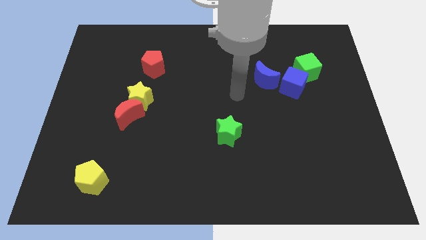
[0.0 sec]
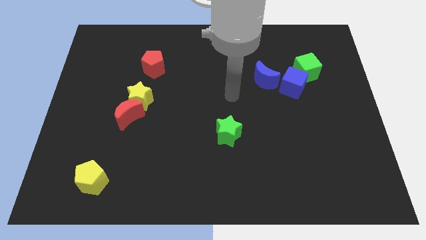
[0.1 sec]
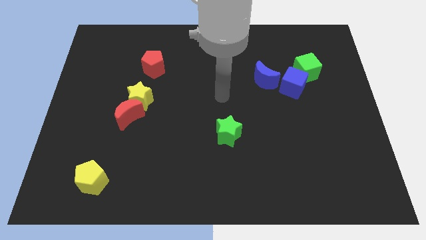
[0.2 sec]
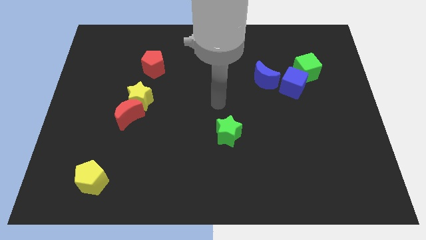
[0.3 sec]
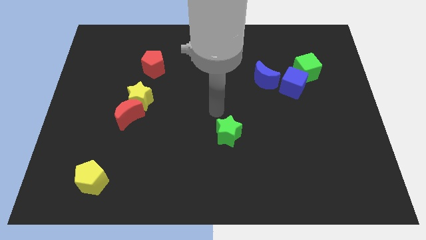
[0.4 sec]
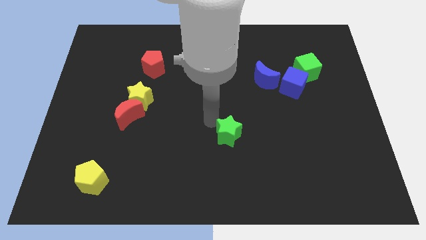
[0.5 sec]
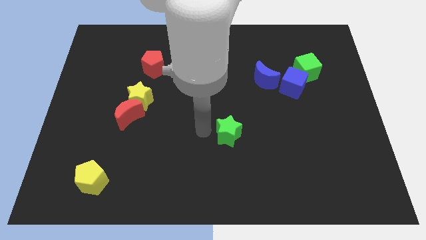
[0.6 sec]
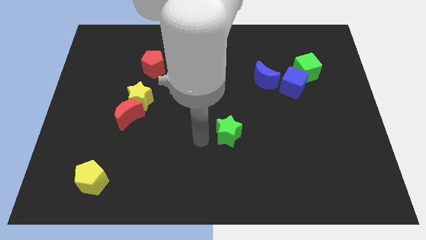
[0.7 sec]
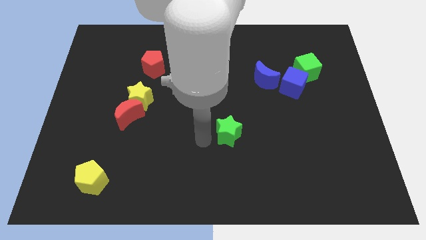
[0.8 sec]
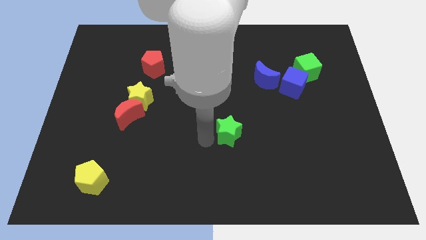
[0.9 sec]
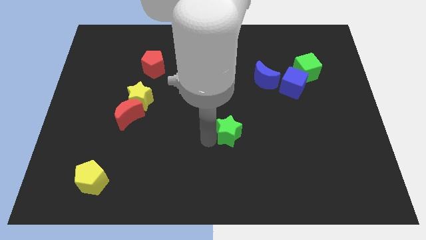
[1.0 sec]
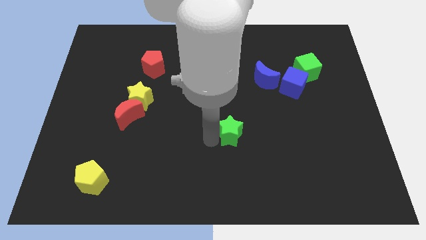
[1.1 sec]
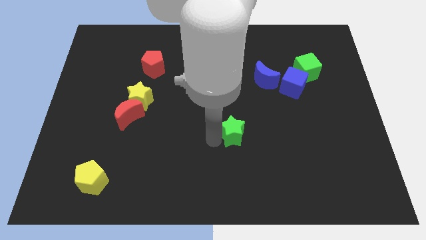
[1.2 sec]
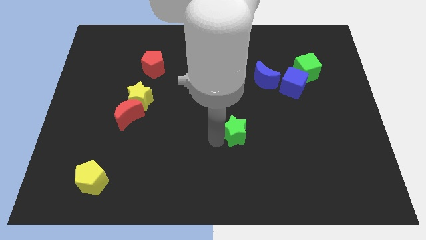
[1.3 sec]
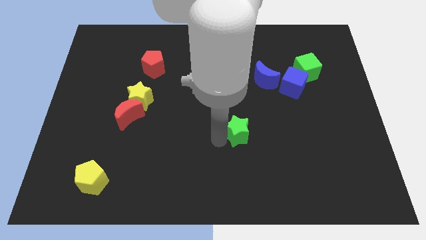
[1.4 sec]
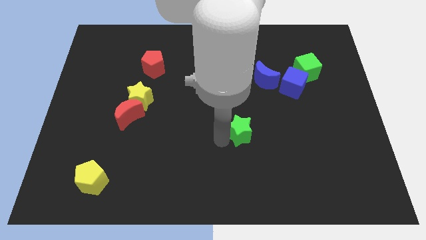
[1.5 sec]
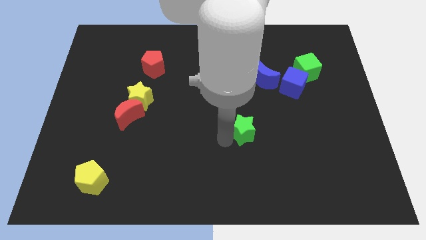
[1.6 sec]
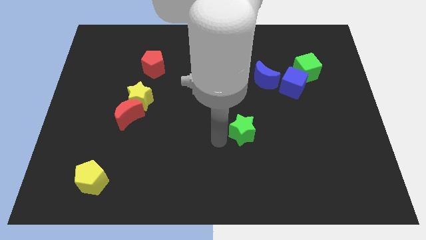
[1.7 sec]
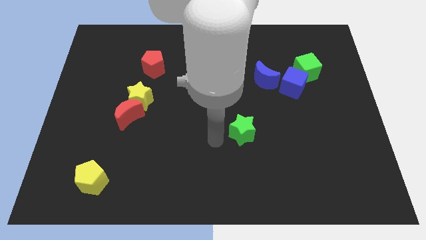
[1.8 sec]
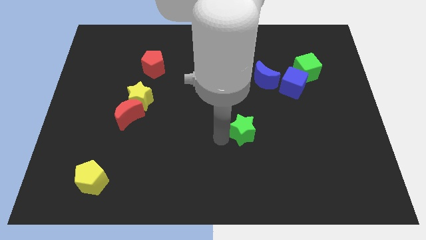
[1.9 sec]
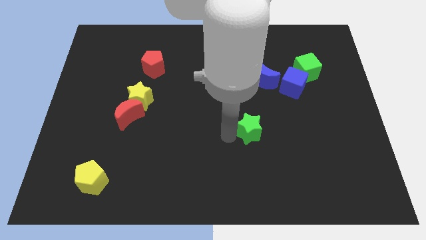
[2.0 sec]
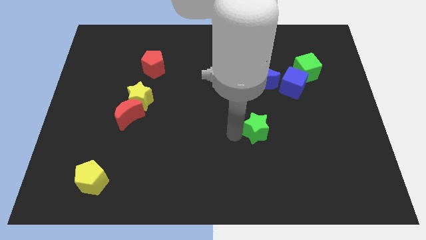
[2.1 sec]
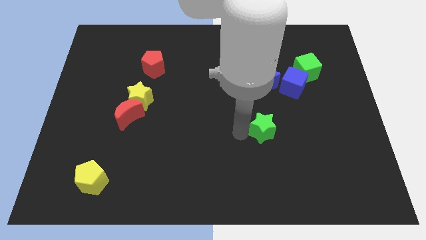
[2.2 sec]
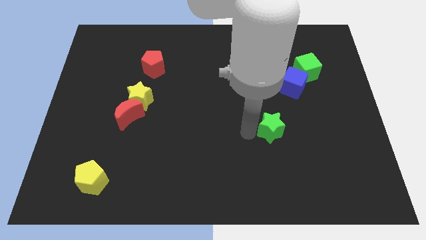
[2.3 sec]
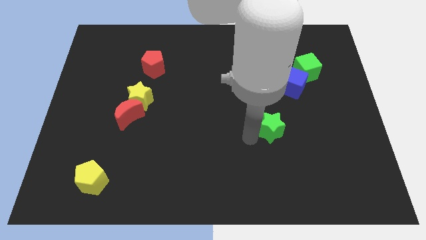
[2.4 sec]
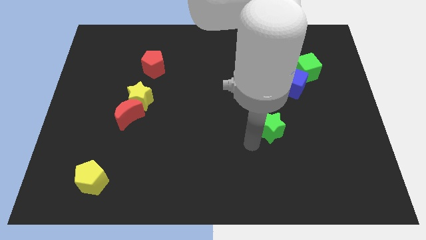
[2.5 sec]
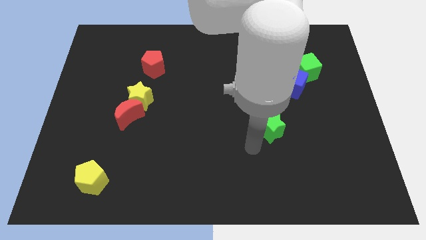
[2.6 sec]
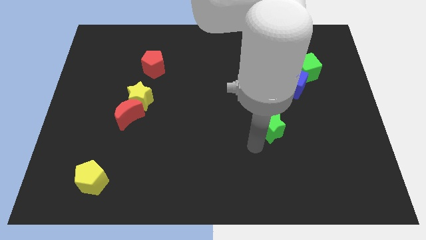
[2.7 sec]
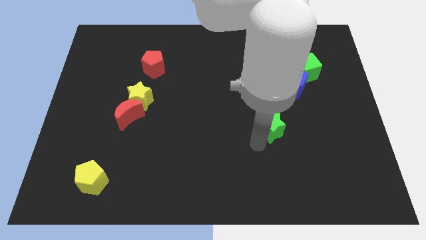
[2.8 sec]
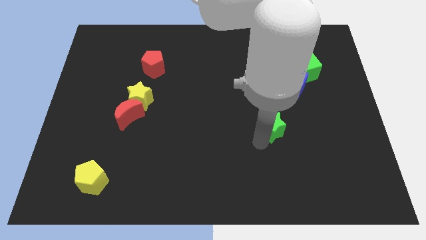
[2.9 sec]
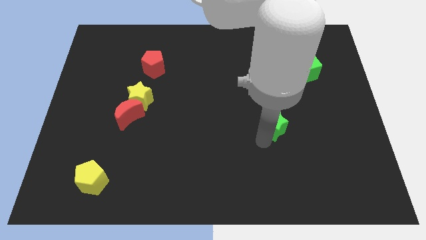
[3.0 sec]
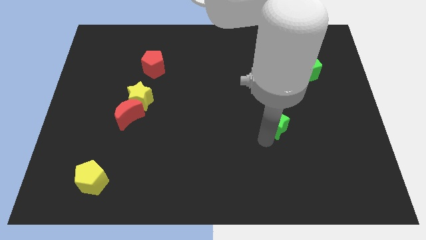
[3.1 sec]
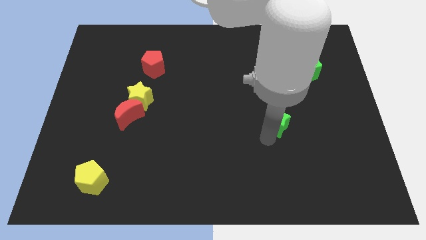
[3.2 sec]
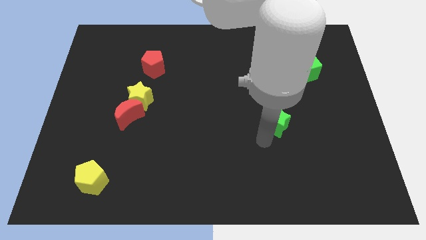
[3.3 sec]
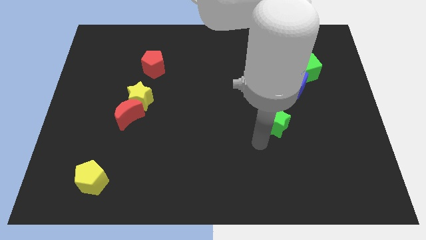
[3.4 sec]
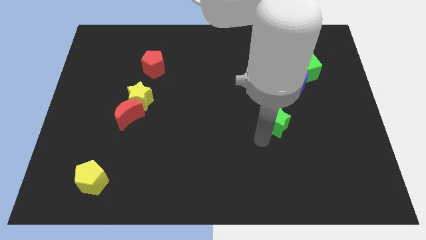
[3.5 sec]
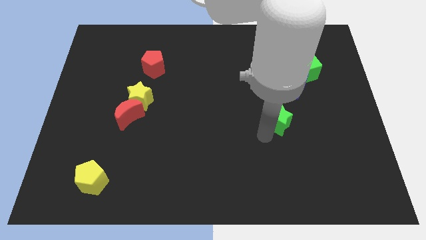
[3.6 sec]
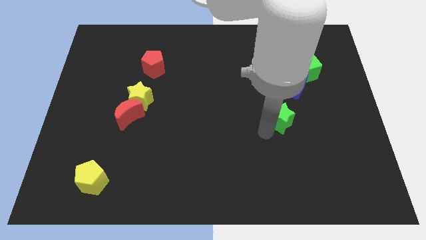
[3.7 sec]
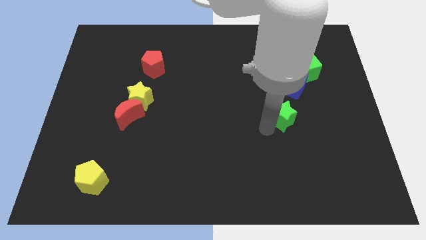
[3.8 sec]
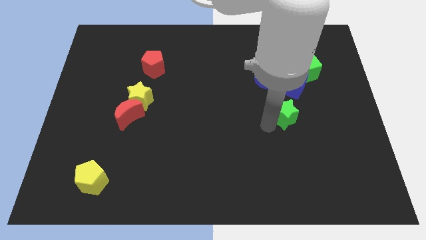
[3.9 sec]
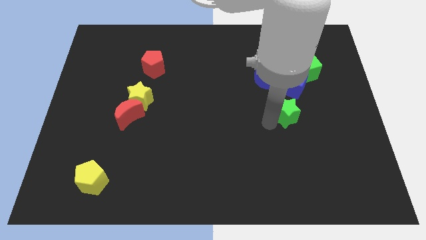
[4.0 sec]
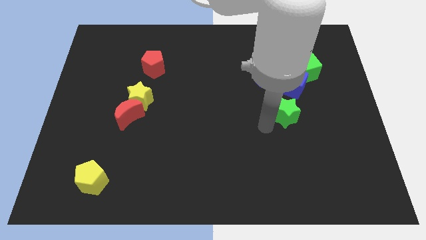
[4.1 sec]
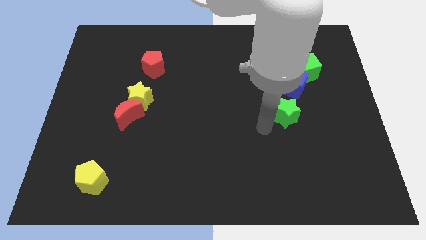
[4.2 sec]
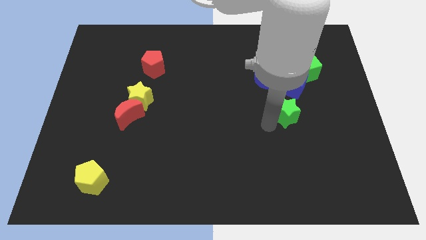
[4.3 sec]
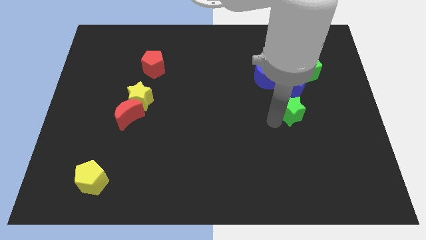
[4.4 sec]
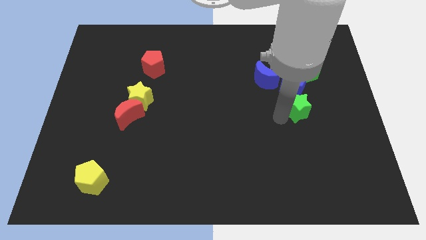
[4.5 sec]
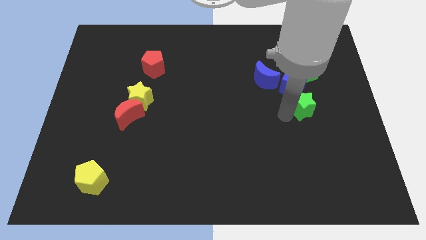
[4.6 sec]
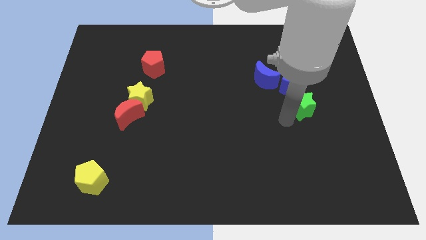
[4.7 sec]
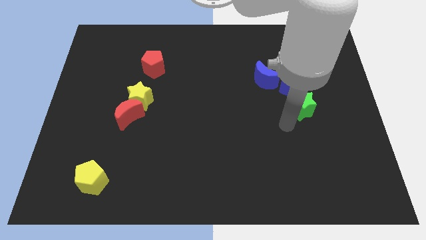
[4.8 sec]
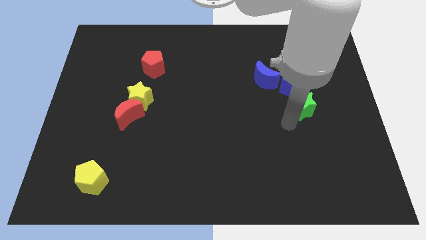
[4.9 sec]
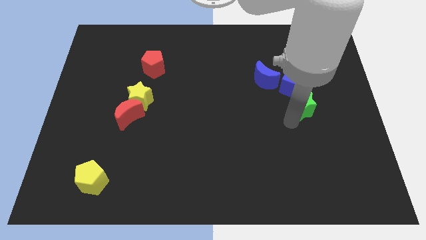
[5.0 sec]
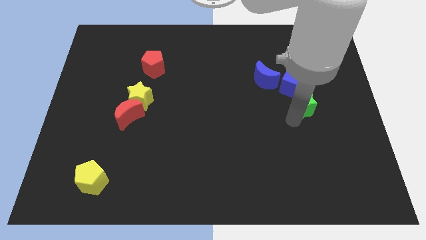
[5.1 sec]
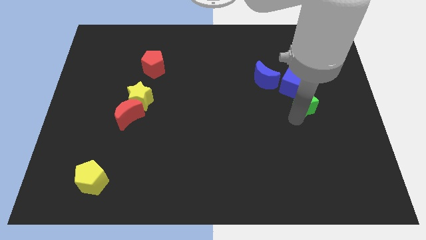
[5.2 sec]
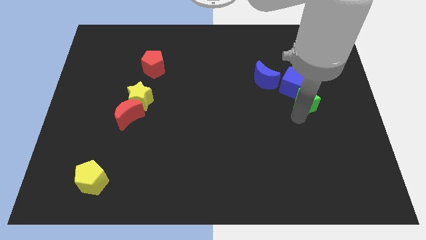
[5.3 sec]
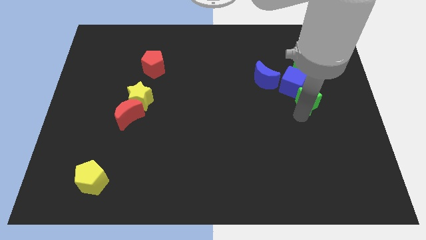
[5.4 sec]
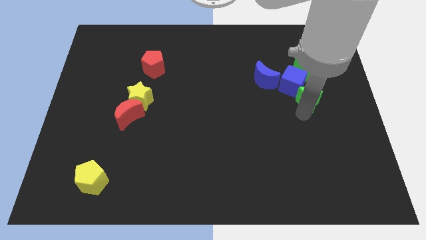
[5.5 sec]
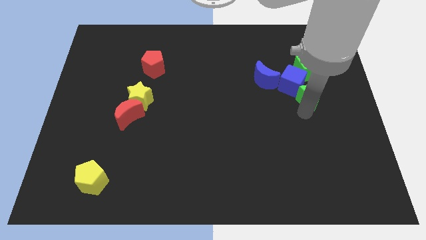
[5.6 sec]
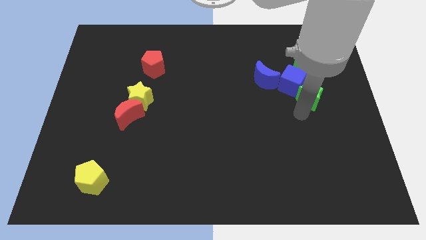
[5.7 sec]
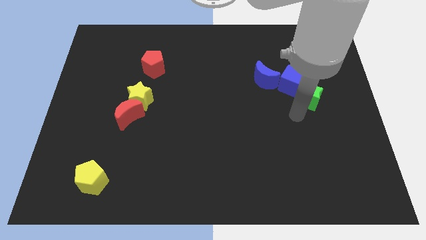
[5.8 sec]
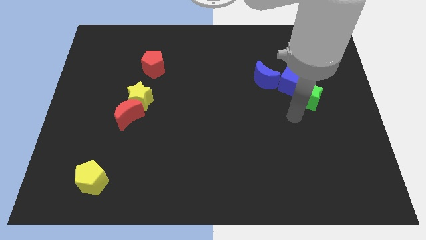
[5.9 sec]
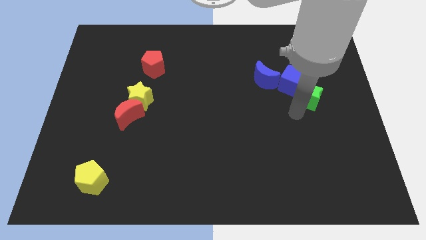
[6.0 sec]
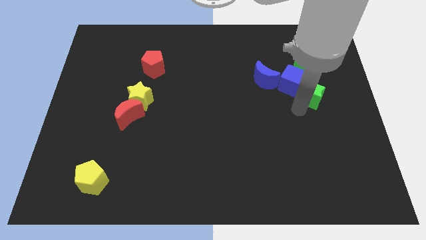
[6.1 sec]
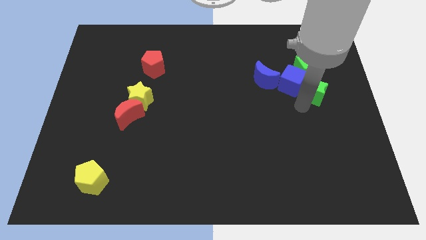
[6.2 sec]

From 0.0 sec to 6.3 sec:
push the green star diagonally upwards and to the right

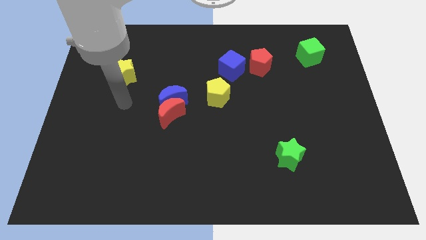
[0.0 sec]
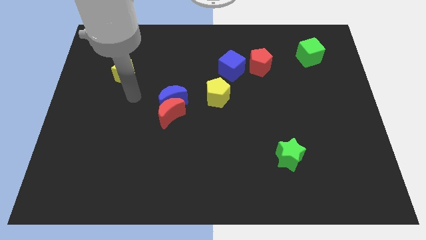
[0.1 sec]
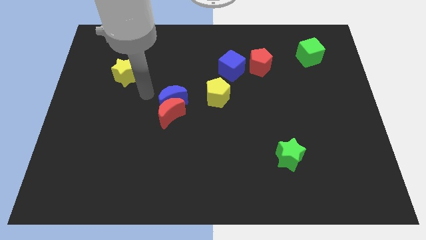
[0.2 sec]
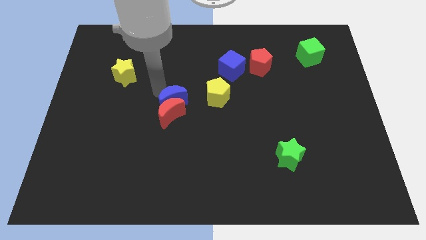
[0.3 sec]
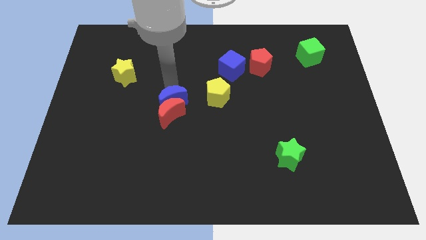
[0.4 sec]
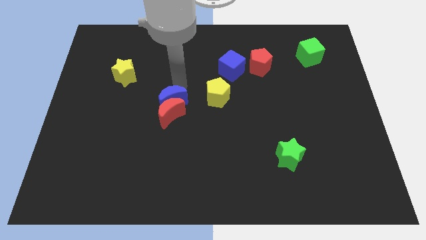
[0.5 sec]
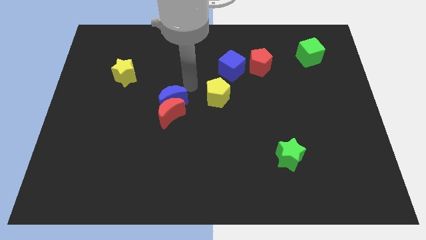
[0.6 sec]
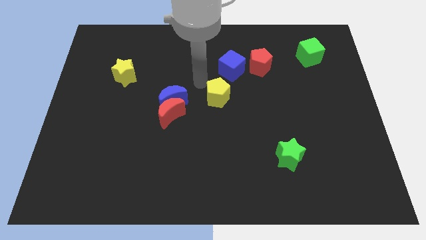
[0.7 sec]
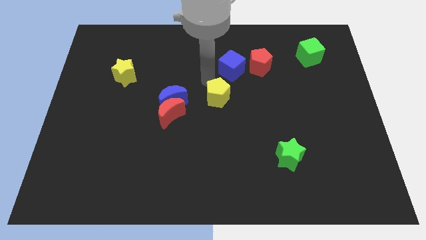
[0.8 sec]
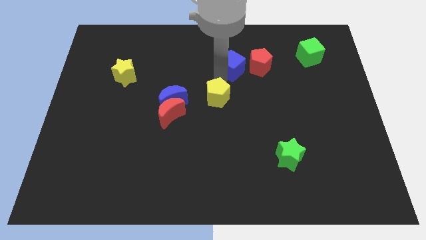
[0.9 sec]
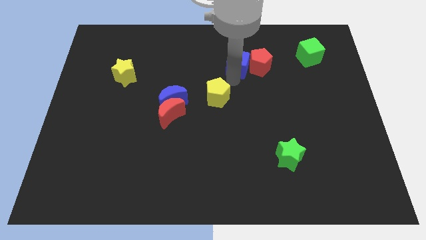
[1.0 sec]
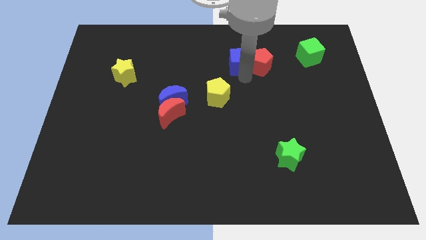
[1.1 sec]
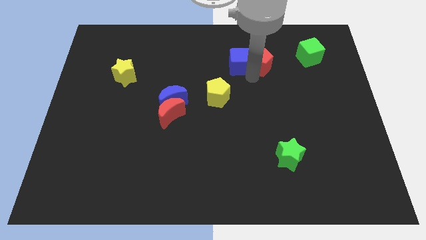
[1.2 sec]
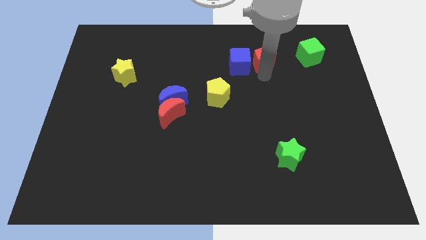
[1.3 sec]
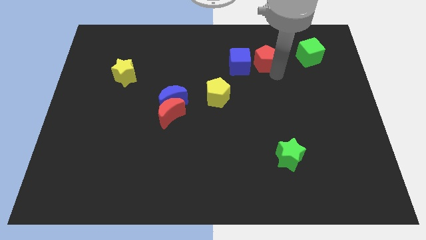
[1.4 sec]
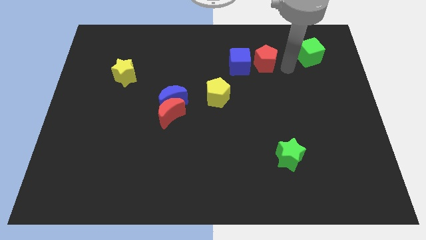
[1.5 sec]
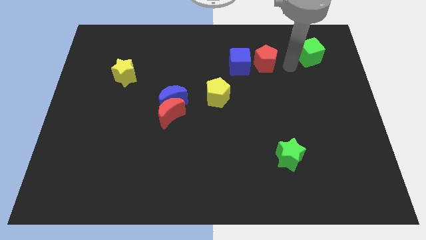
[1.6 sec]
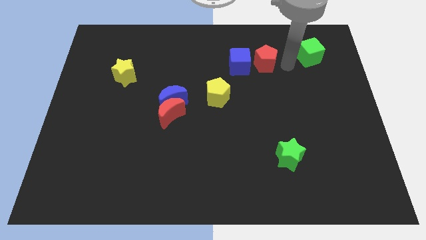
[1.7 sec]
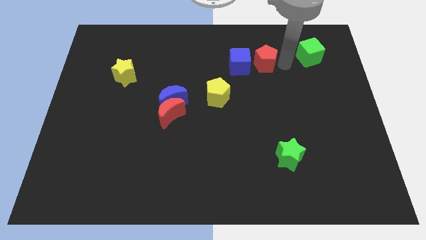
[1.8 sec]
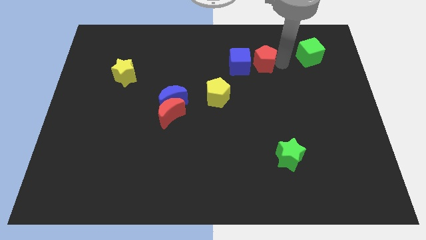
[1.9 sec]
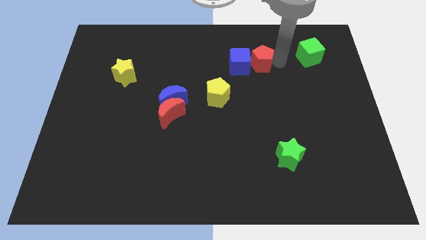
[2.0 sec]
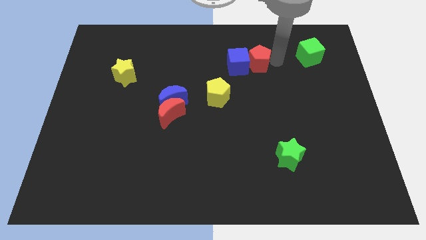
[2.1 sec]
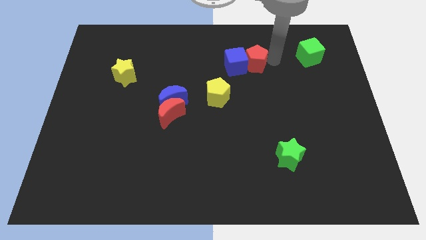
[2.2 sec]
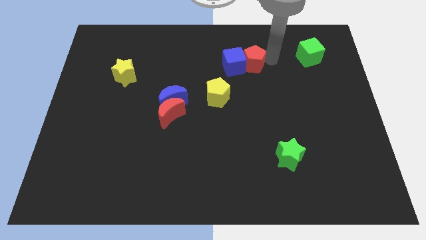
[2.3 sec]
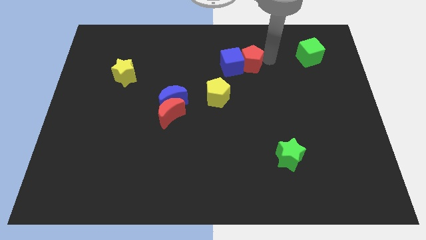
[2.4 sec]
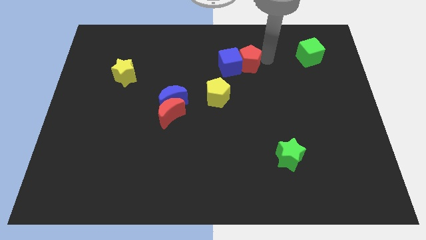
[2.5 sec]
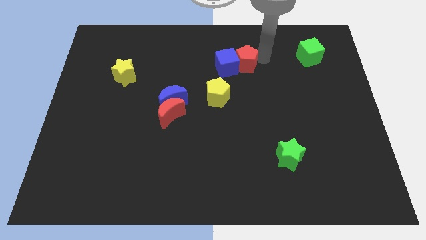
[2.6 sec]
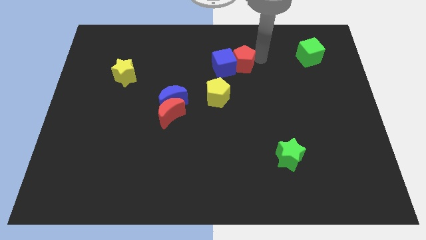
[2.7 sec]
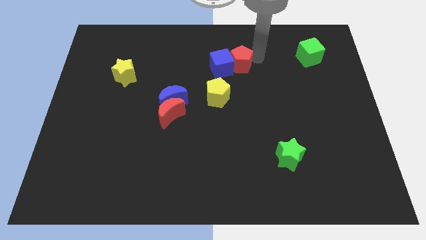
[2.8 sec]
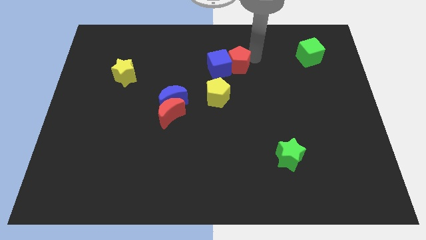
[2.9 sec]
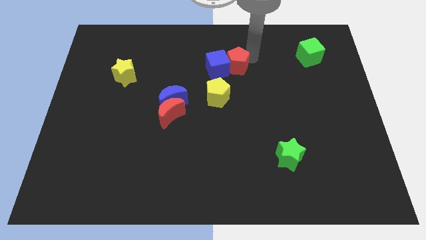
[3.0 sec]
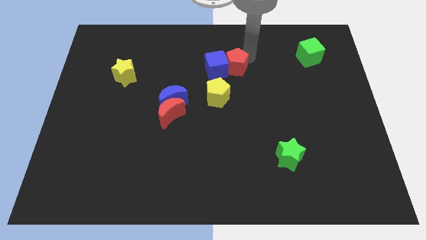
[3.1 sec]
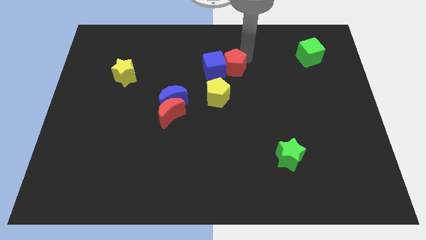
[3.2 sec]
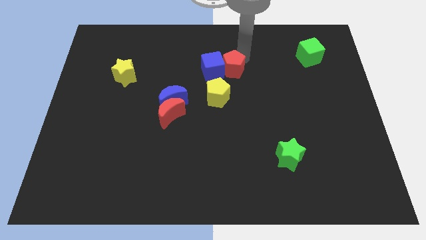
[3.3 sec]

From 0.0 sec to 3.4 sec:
move the red pentagon slightly left
